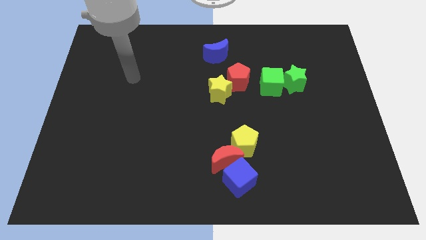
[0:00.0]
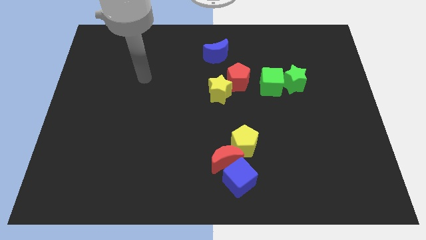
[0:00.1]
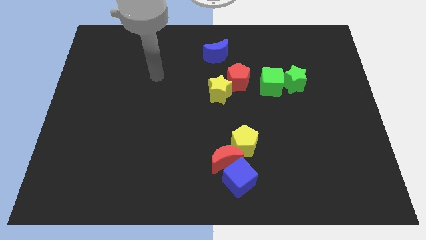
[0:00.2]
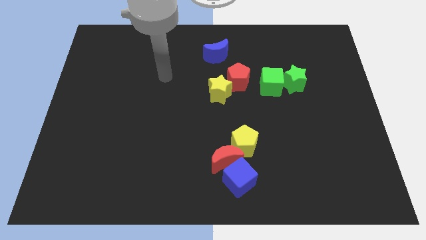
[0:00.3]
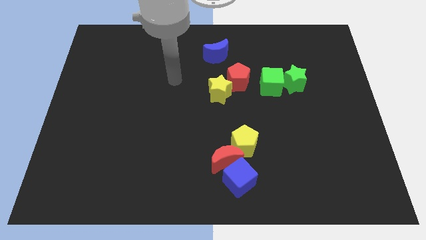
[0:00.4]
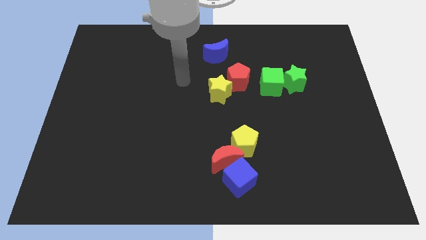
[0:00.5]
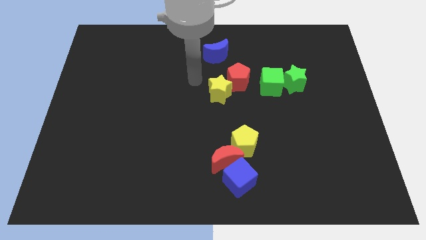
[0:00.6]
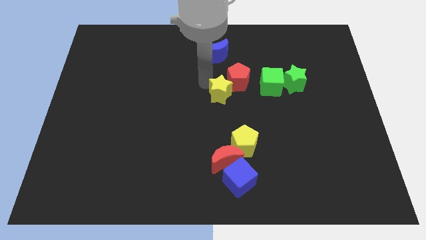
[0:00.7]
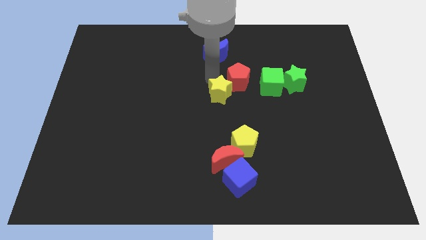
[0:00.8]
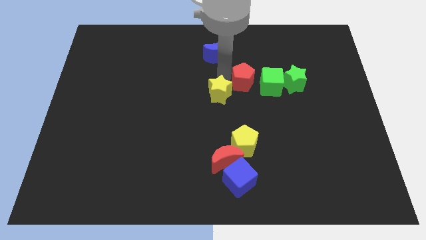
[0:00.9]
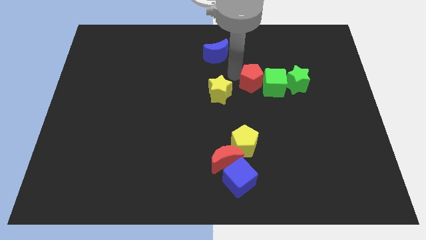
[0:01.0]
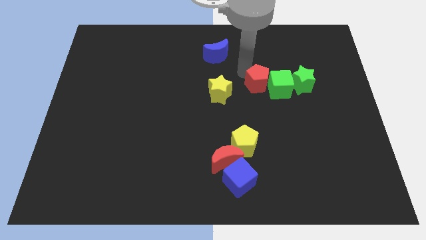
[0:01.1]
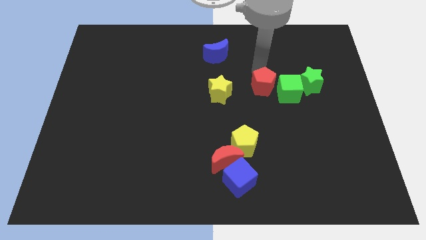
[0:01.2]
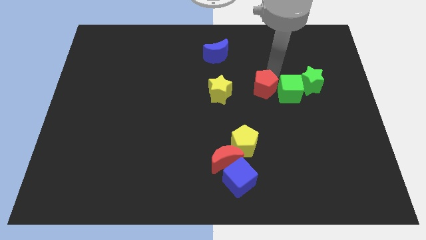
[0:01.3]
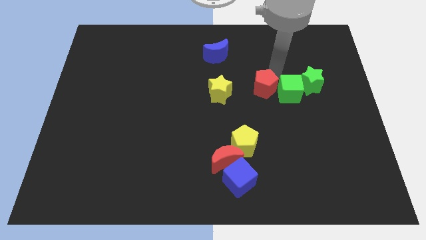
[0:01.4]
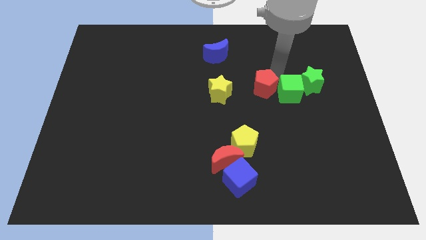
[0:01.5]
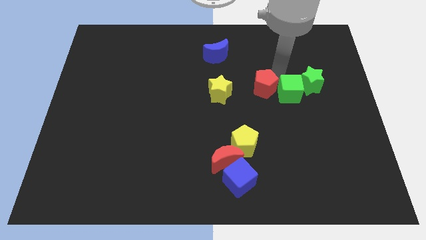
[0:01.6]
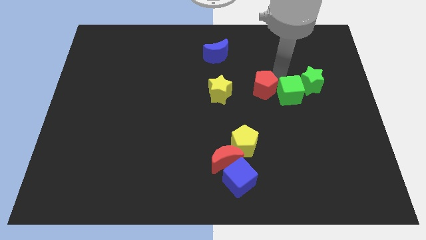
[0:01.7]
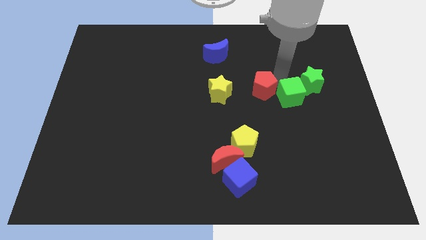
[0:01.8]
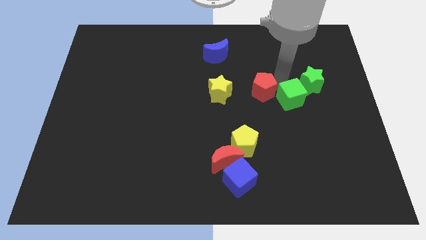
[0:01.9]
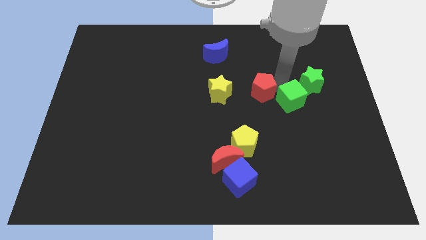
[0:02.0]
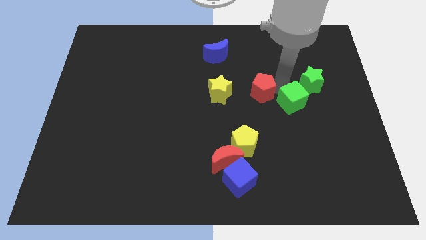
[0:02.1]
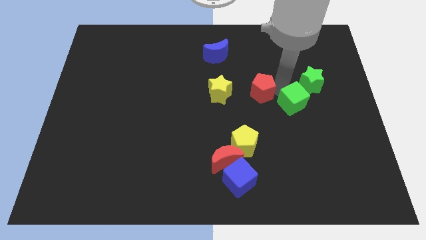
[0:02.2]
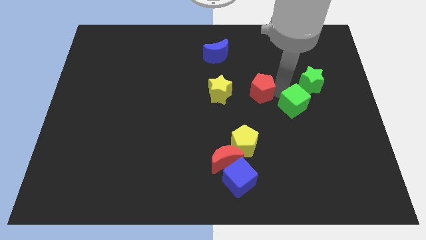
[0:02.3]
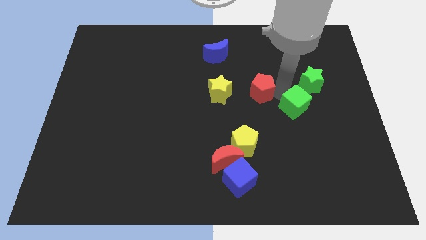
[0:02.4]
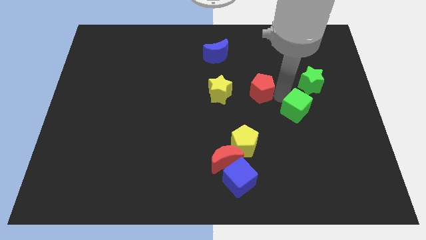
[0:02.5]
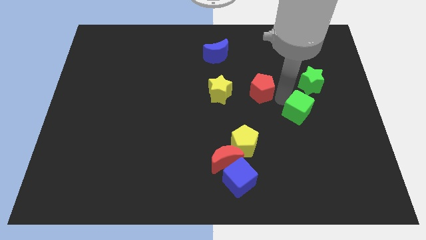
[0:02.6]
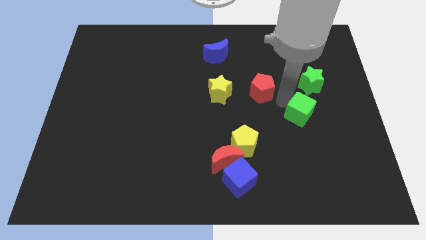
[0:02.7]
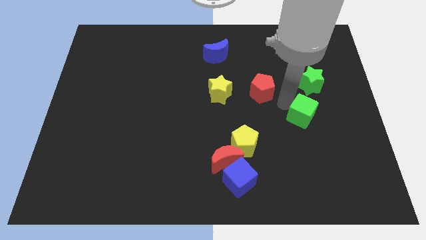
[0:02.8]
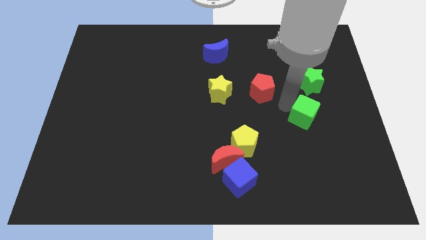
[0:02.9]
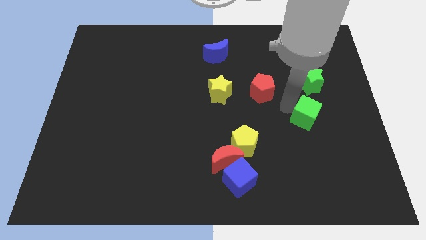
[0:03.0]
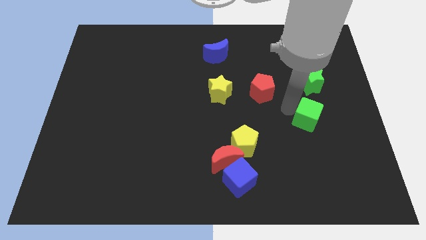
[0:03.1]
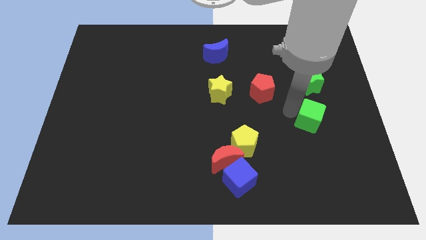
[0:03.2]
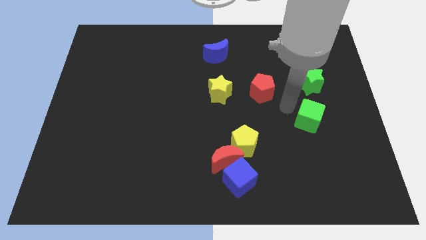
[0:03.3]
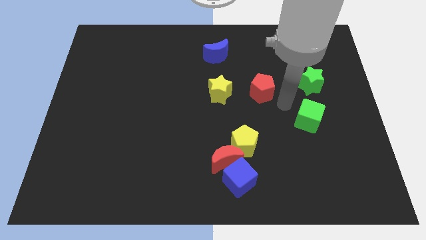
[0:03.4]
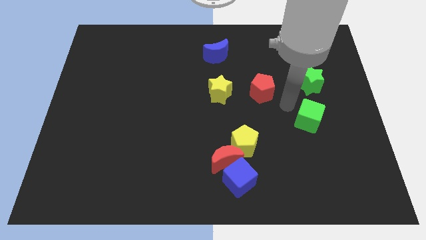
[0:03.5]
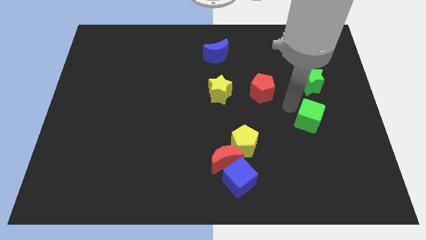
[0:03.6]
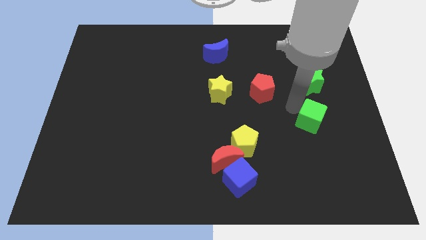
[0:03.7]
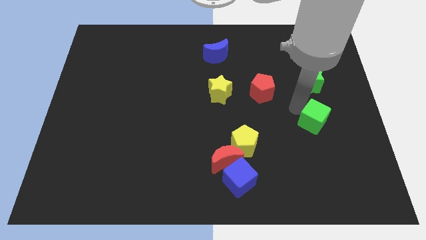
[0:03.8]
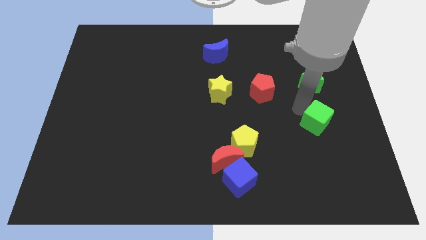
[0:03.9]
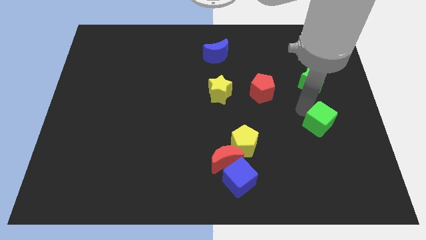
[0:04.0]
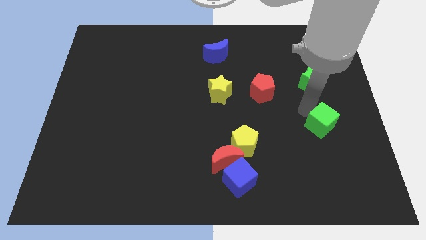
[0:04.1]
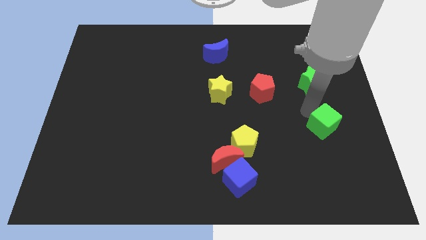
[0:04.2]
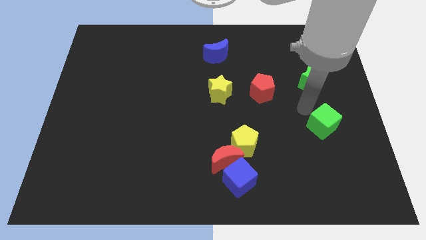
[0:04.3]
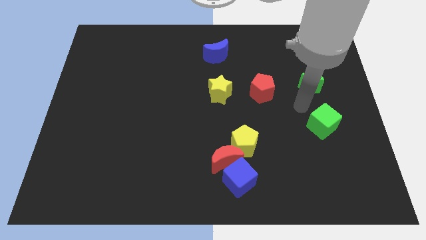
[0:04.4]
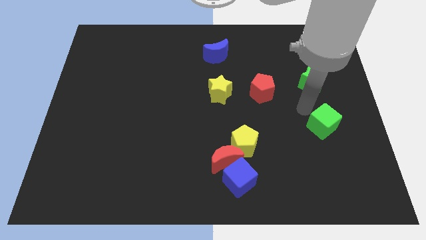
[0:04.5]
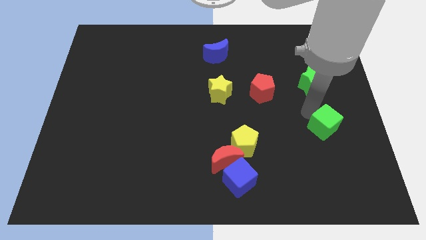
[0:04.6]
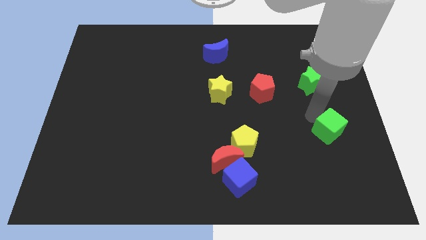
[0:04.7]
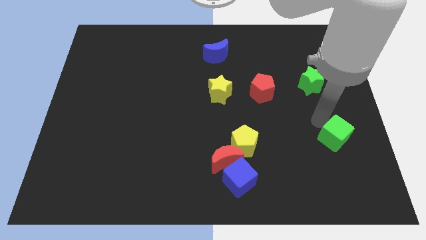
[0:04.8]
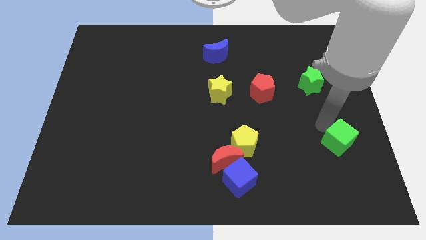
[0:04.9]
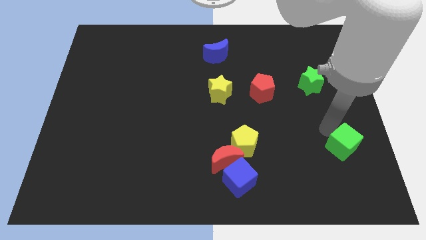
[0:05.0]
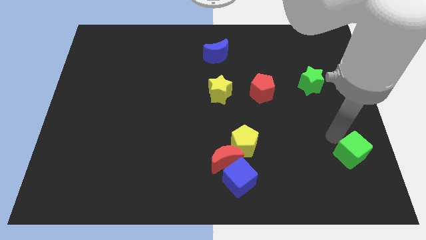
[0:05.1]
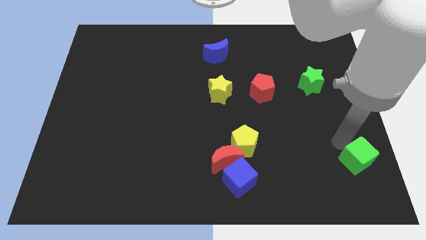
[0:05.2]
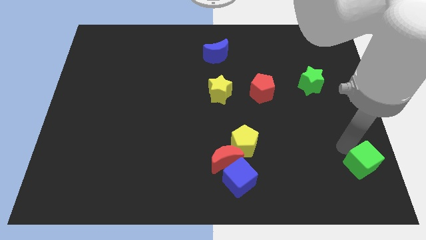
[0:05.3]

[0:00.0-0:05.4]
push the green cube to the lower right corner

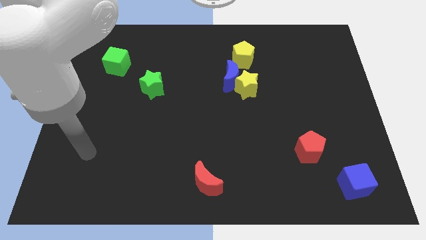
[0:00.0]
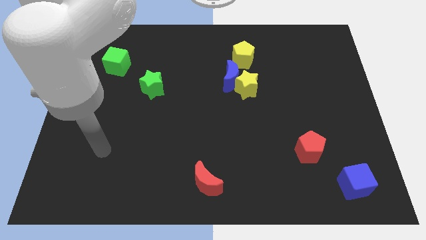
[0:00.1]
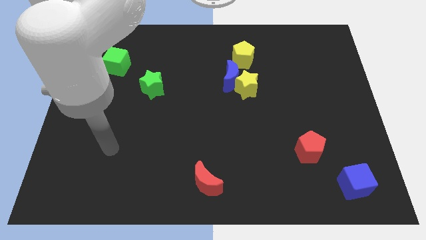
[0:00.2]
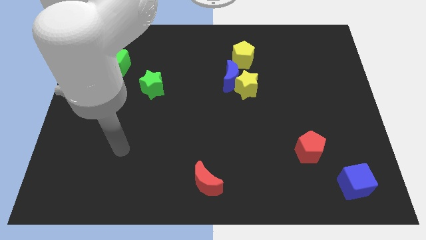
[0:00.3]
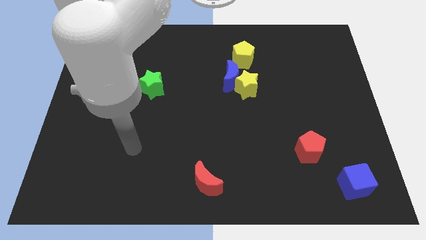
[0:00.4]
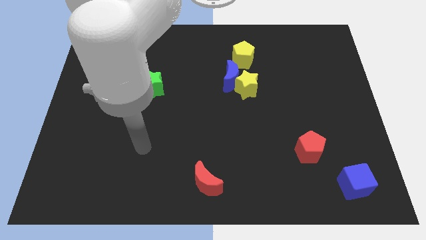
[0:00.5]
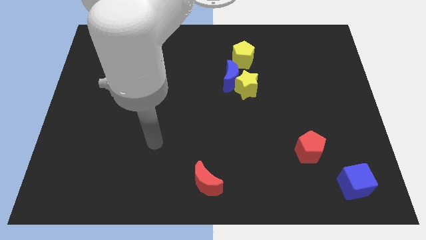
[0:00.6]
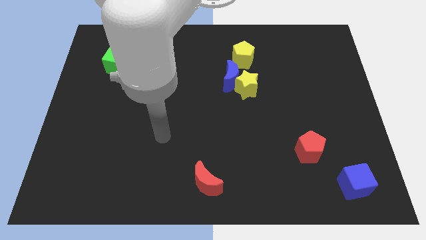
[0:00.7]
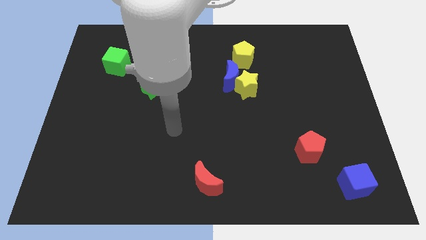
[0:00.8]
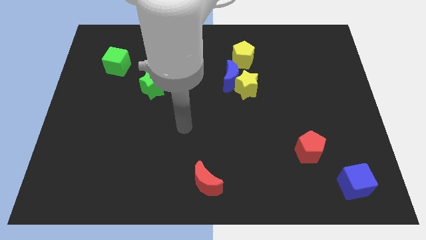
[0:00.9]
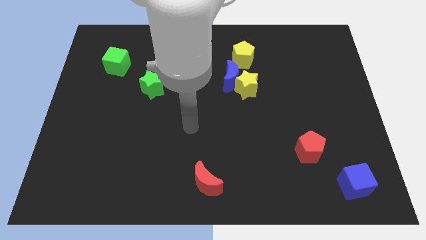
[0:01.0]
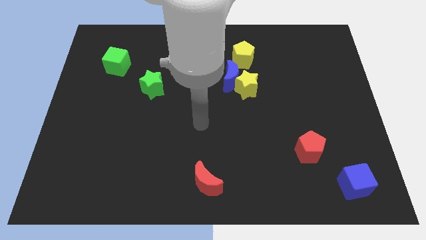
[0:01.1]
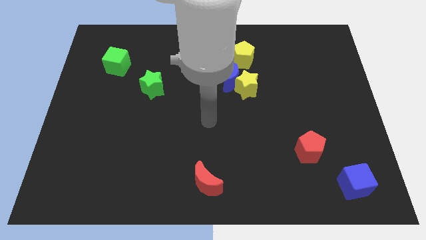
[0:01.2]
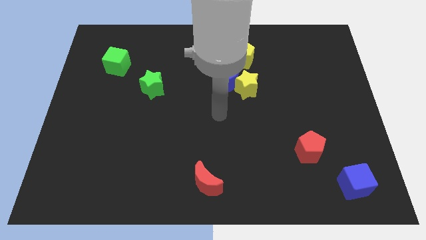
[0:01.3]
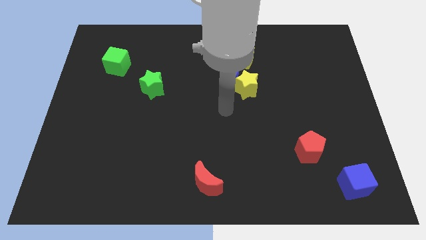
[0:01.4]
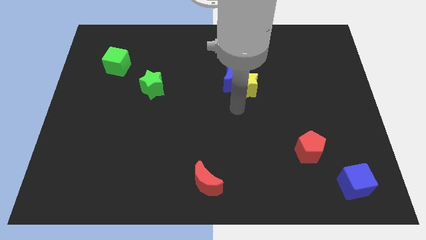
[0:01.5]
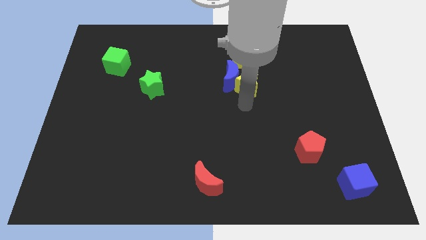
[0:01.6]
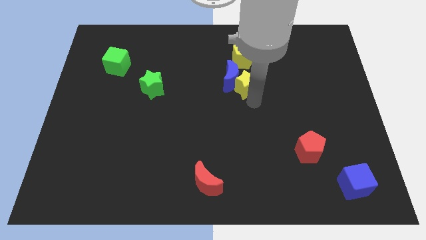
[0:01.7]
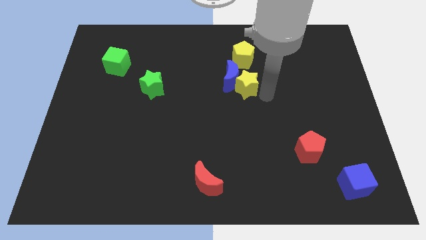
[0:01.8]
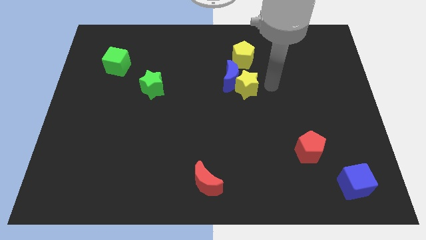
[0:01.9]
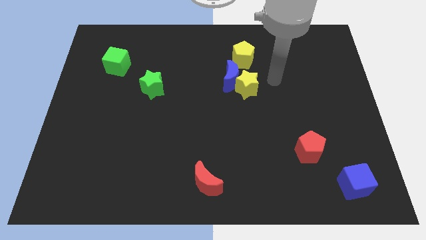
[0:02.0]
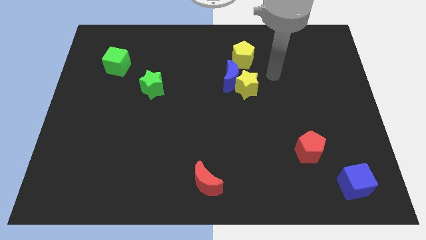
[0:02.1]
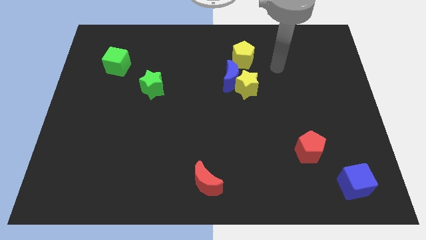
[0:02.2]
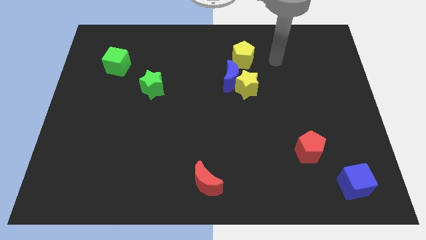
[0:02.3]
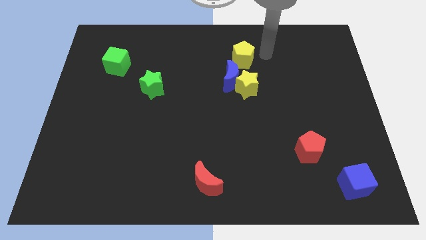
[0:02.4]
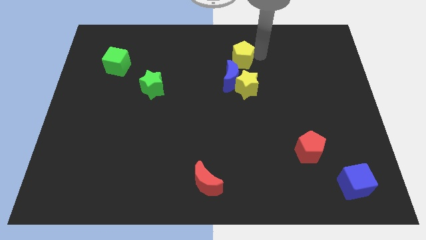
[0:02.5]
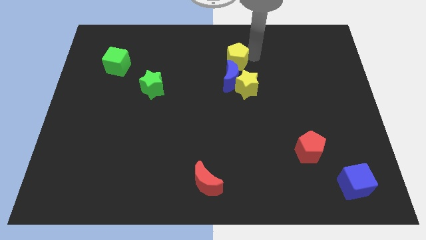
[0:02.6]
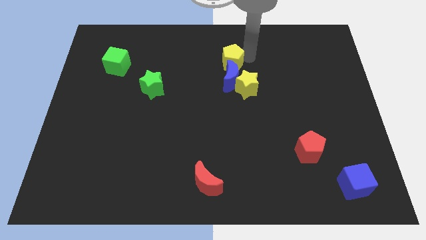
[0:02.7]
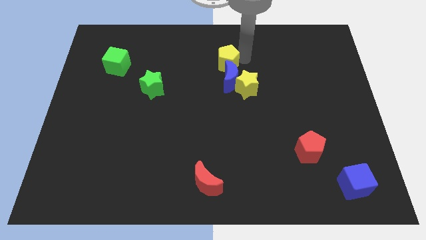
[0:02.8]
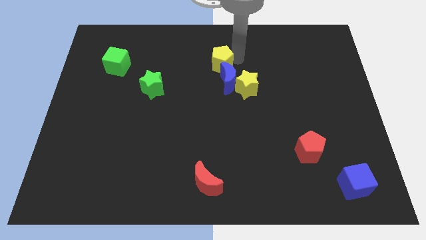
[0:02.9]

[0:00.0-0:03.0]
slide the yellow pentagon to the center of the board
